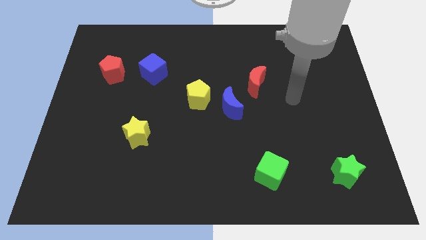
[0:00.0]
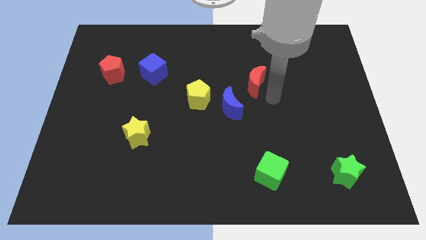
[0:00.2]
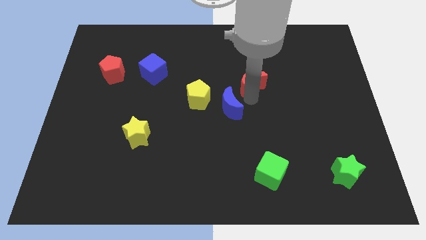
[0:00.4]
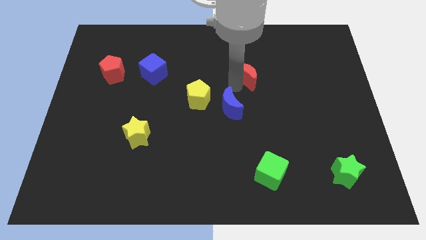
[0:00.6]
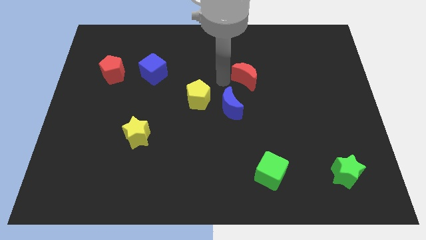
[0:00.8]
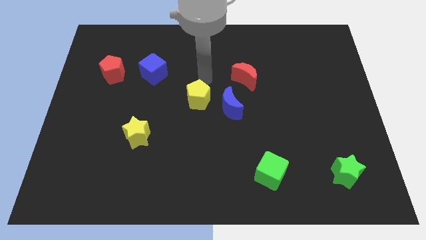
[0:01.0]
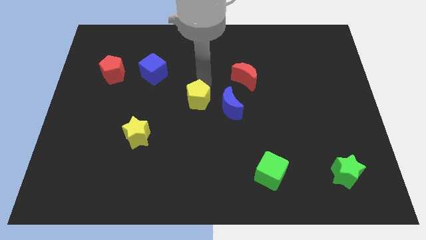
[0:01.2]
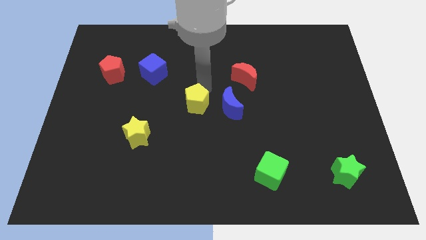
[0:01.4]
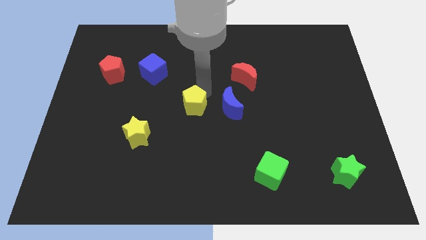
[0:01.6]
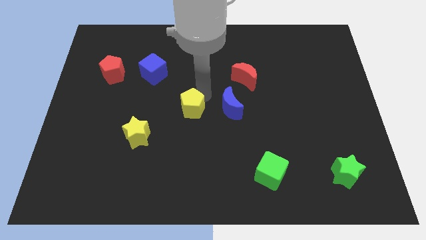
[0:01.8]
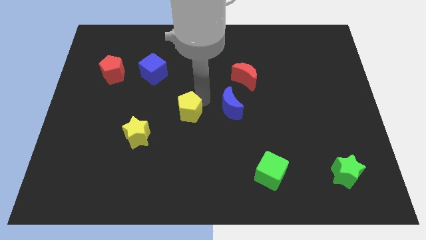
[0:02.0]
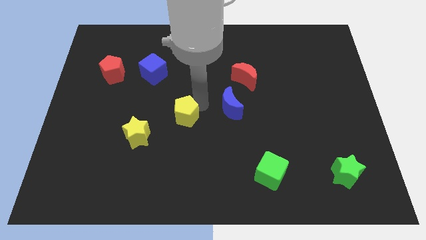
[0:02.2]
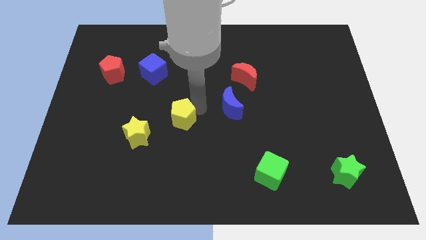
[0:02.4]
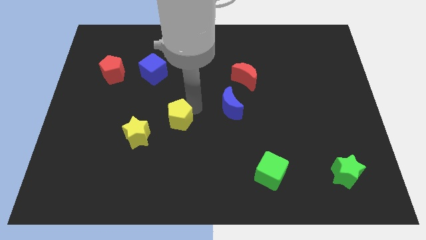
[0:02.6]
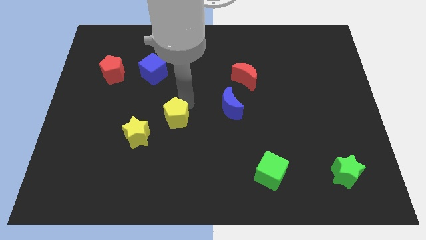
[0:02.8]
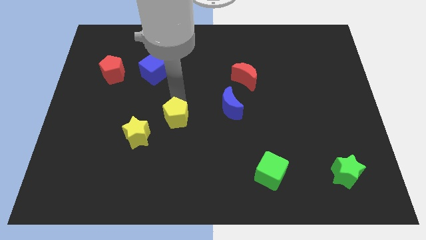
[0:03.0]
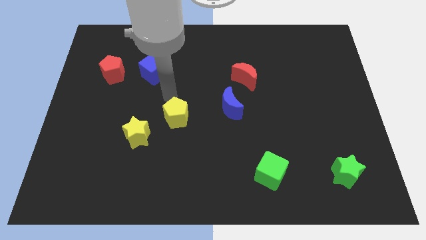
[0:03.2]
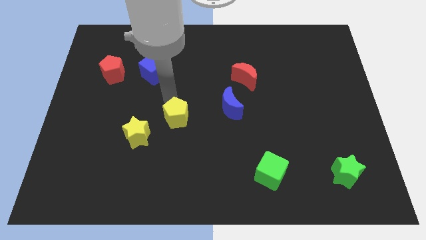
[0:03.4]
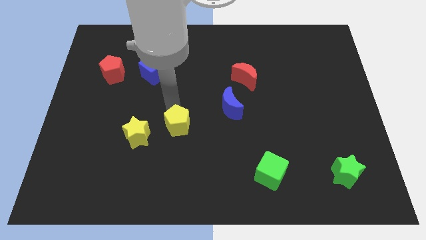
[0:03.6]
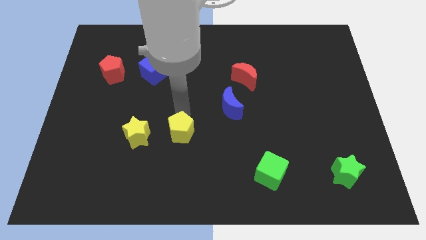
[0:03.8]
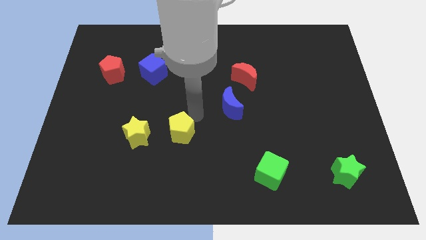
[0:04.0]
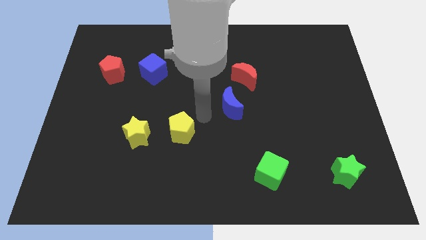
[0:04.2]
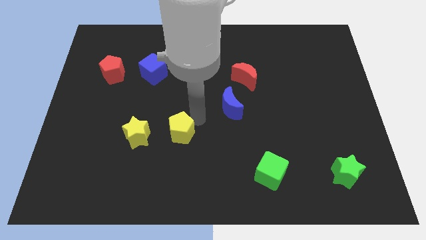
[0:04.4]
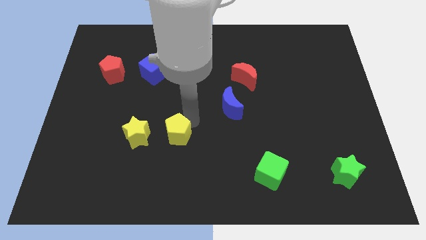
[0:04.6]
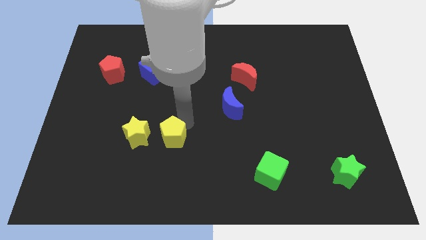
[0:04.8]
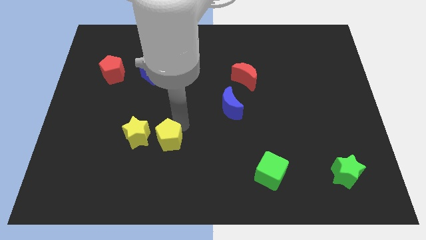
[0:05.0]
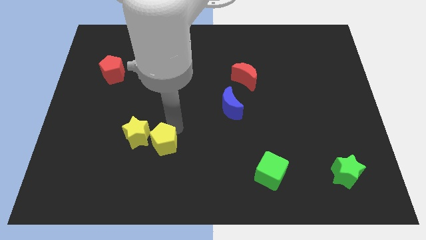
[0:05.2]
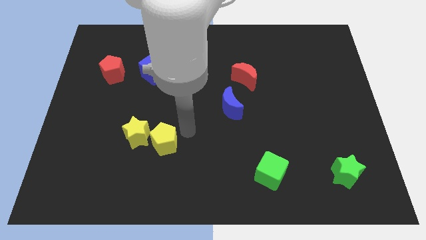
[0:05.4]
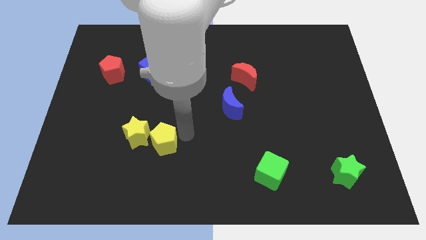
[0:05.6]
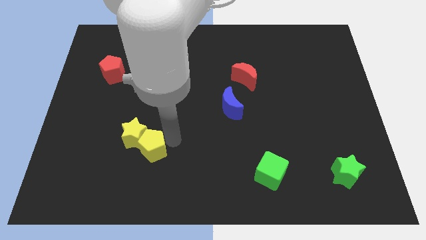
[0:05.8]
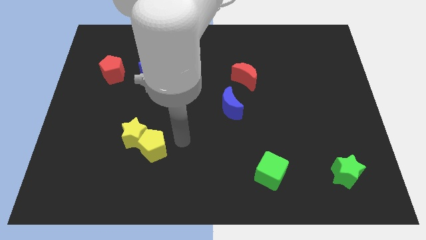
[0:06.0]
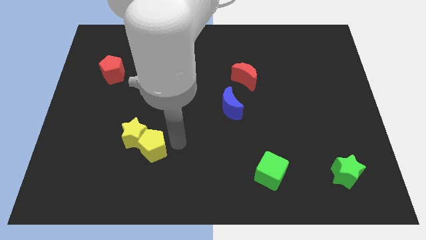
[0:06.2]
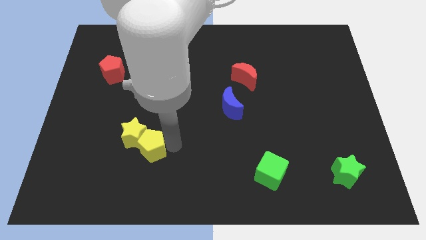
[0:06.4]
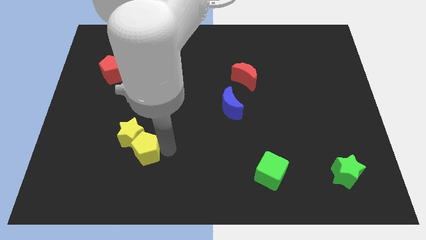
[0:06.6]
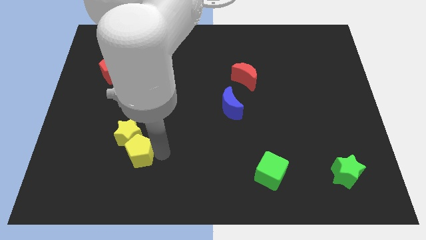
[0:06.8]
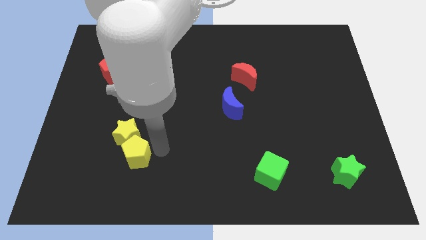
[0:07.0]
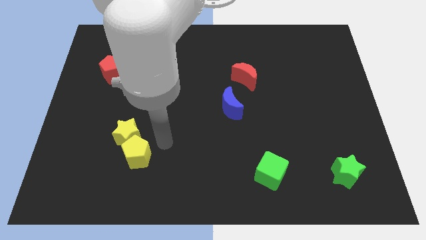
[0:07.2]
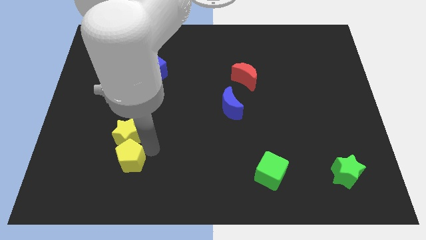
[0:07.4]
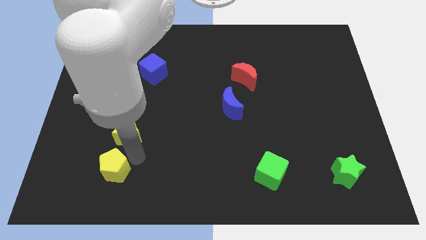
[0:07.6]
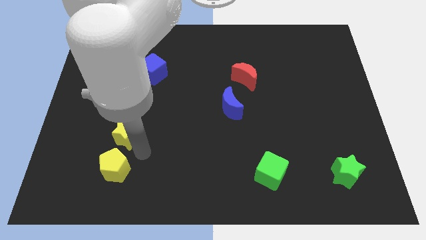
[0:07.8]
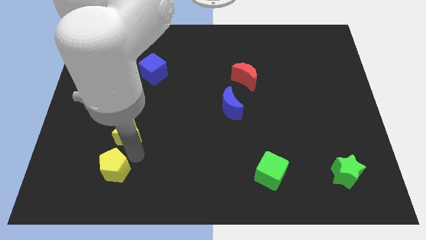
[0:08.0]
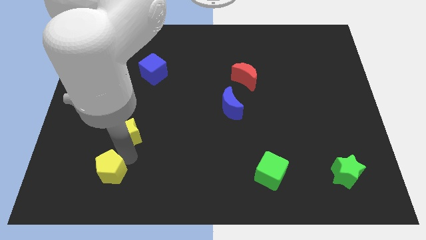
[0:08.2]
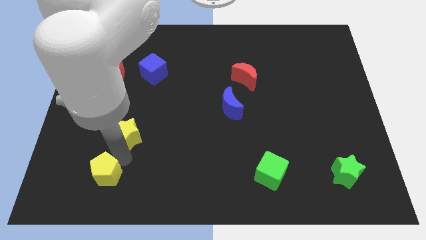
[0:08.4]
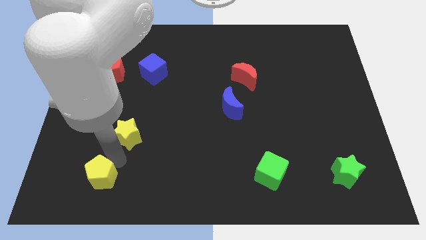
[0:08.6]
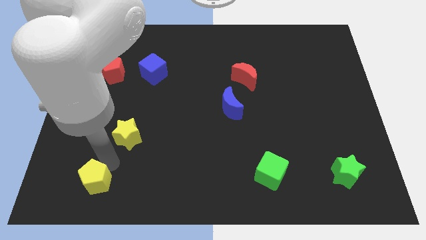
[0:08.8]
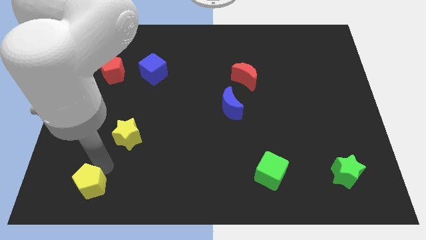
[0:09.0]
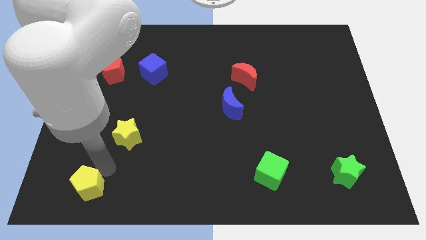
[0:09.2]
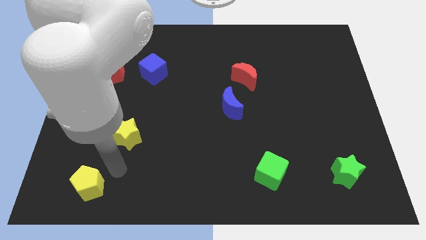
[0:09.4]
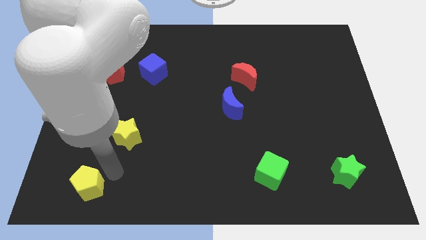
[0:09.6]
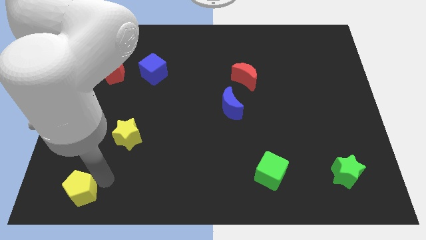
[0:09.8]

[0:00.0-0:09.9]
push the yellow pentagon to the bottom left

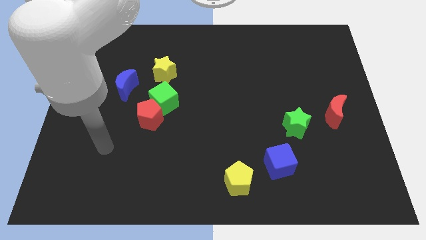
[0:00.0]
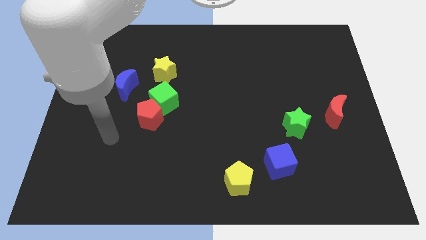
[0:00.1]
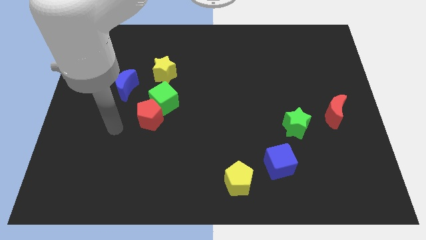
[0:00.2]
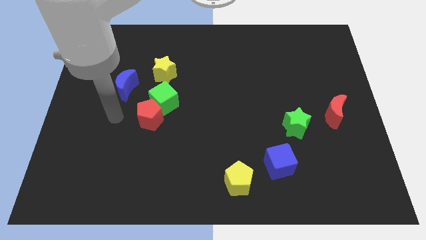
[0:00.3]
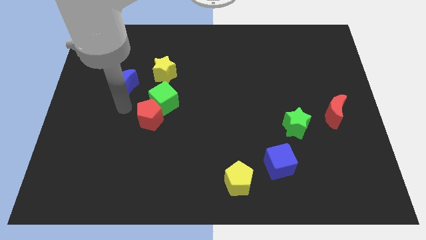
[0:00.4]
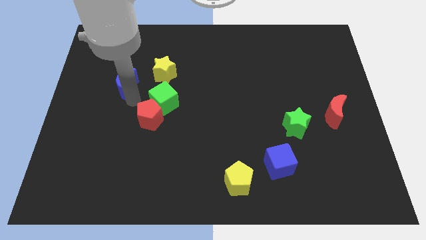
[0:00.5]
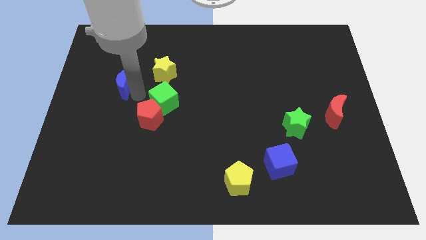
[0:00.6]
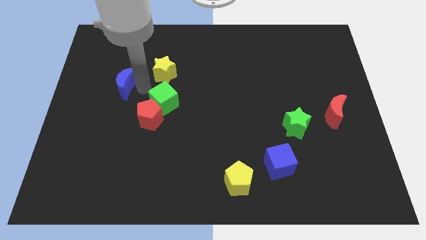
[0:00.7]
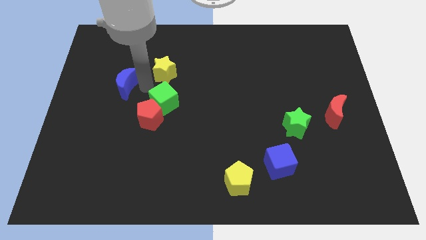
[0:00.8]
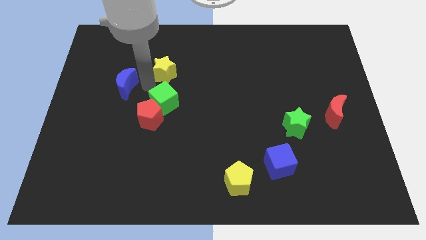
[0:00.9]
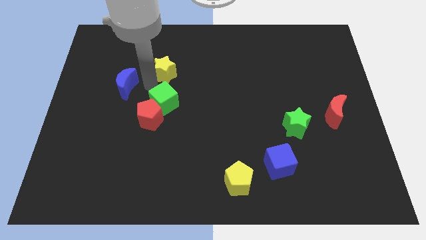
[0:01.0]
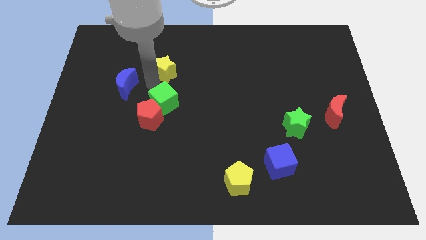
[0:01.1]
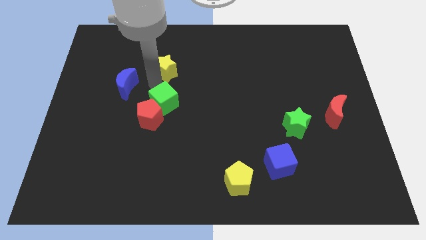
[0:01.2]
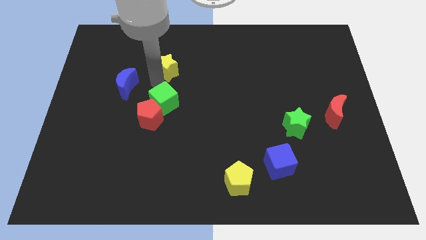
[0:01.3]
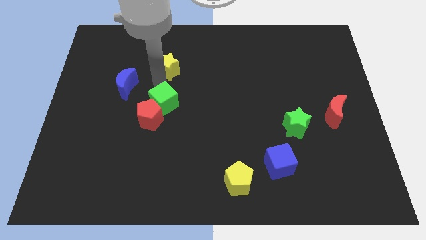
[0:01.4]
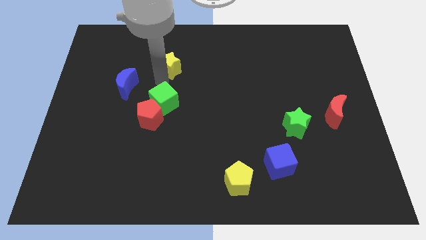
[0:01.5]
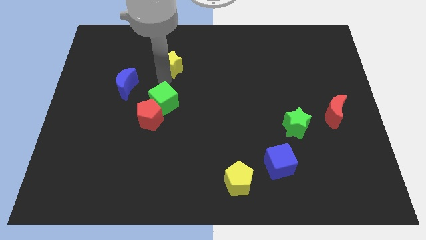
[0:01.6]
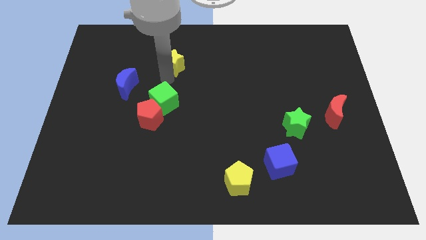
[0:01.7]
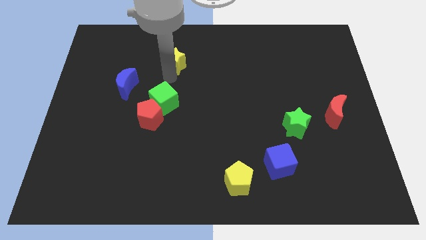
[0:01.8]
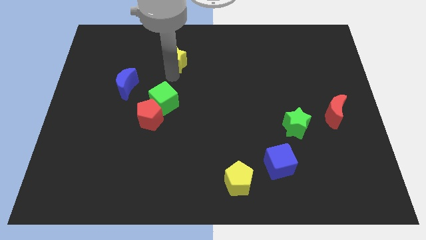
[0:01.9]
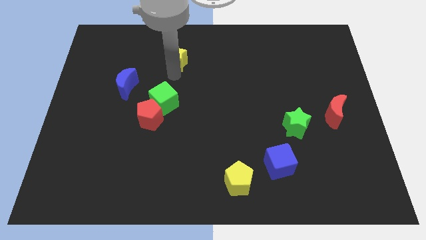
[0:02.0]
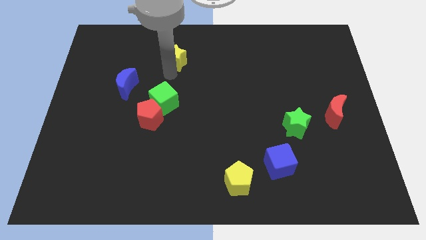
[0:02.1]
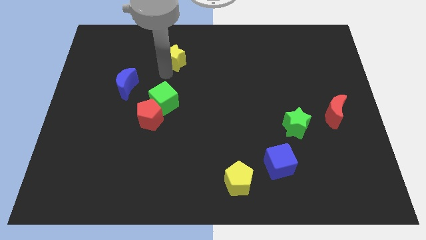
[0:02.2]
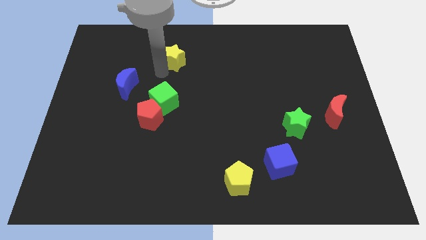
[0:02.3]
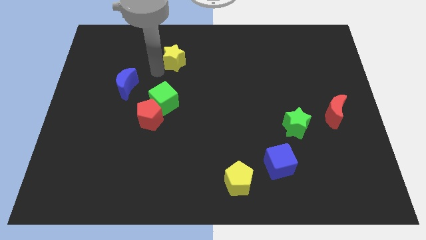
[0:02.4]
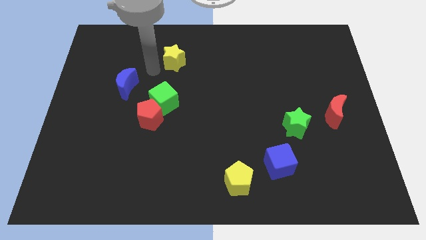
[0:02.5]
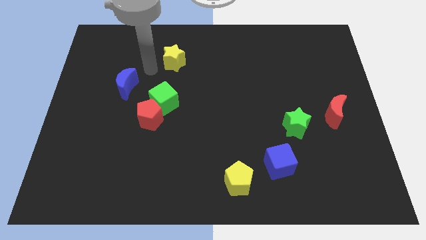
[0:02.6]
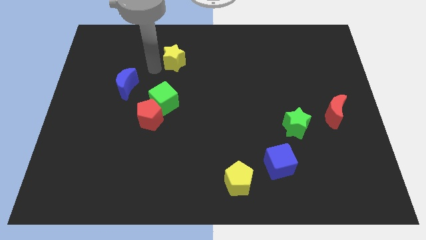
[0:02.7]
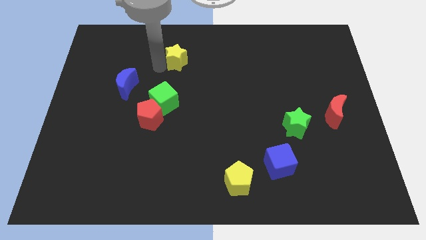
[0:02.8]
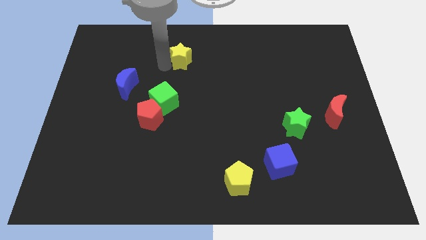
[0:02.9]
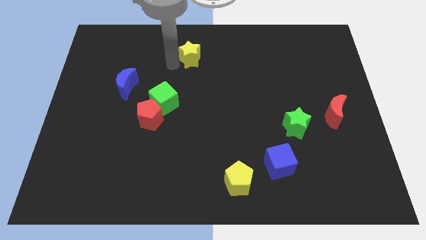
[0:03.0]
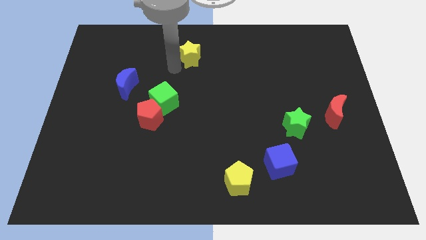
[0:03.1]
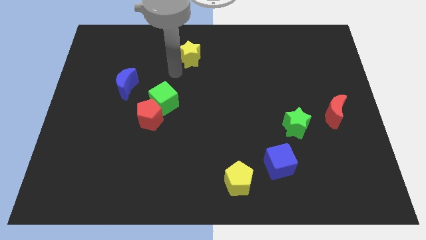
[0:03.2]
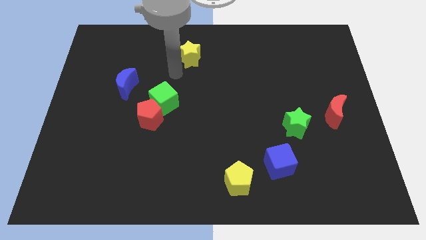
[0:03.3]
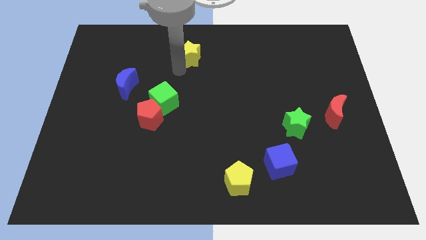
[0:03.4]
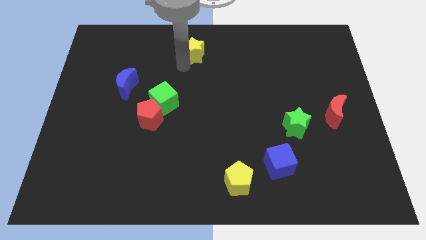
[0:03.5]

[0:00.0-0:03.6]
push the yellow star to the top
